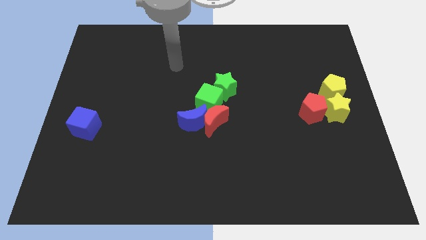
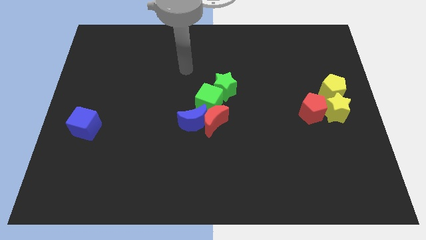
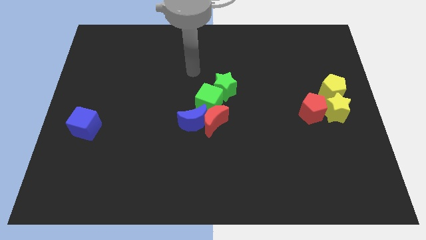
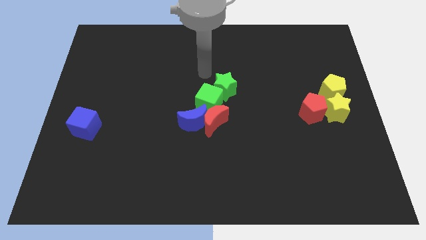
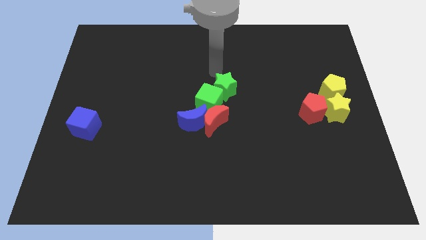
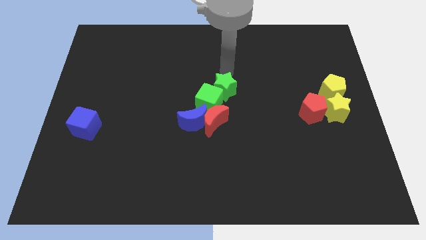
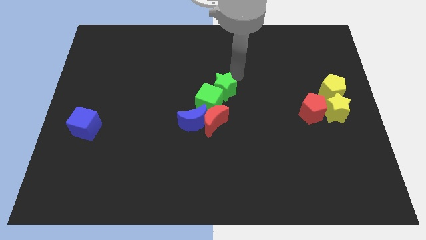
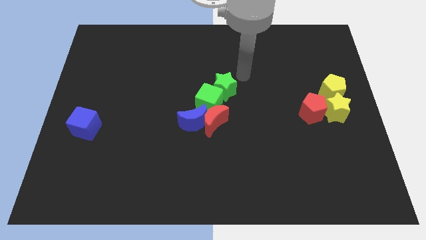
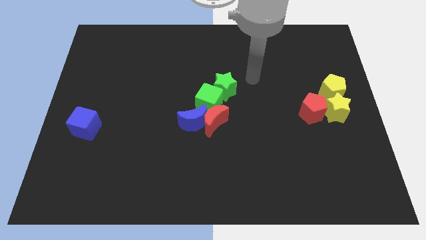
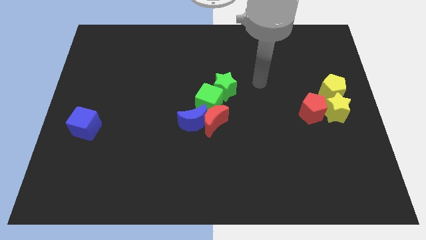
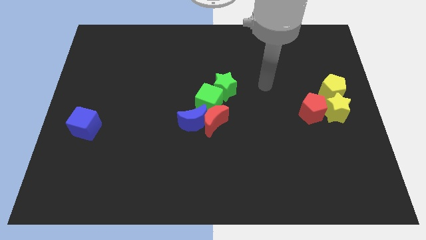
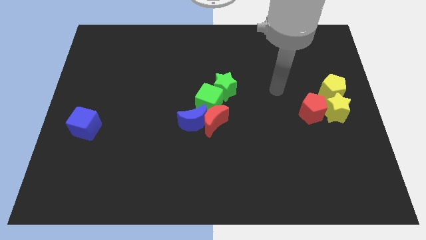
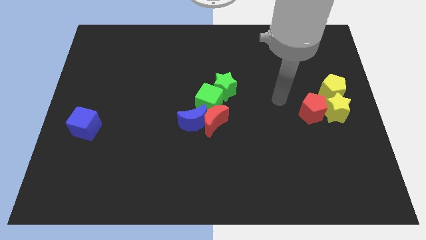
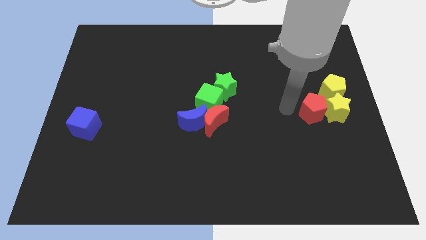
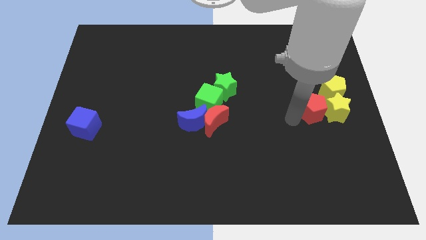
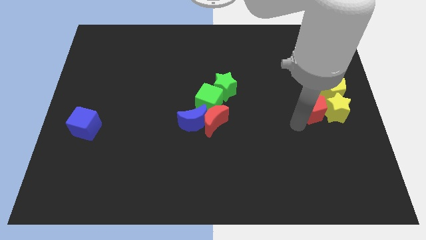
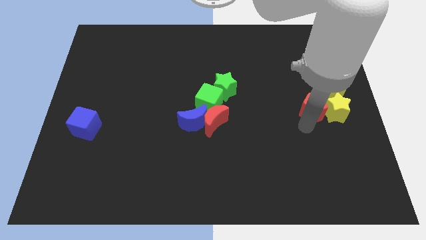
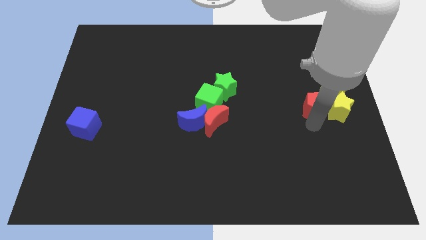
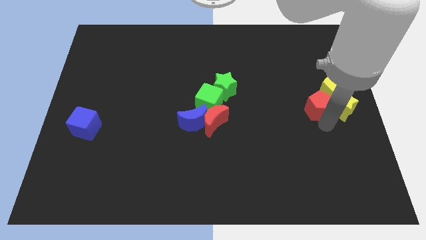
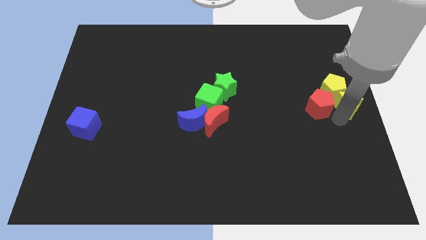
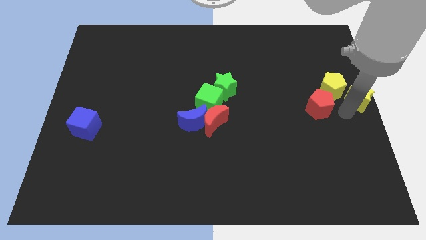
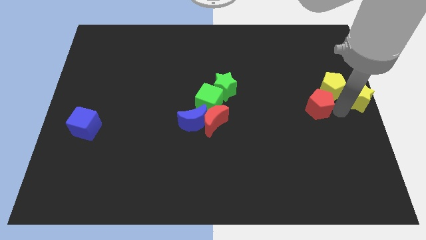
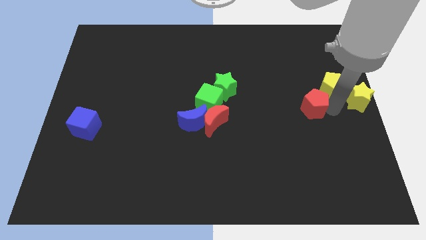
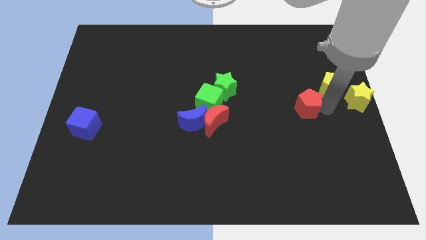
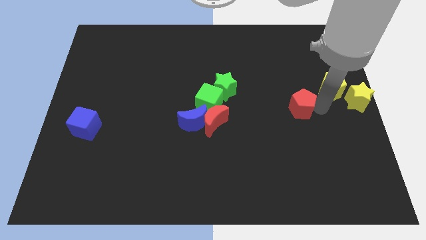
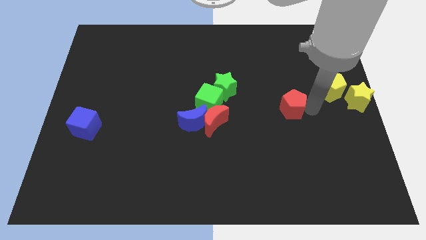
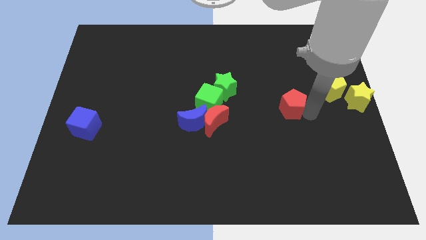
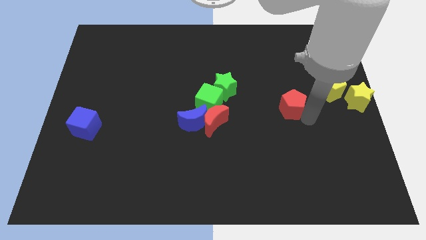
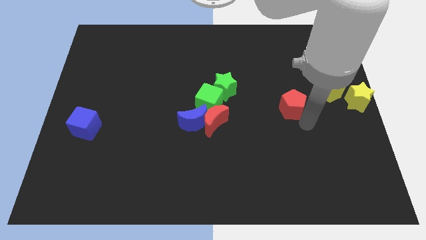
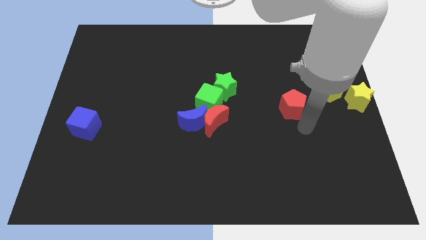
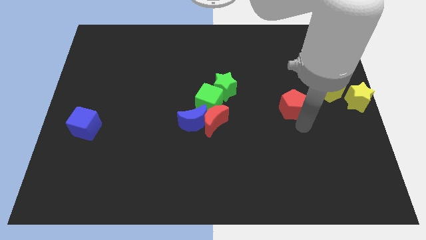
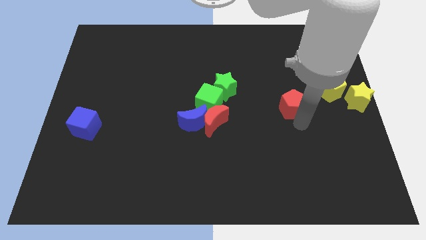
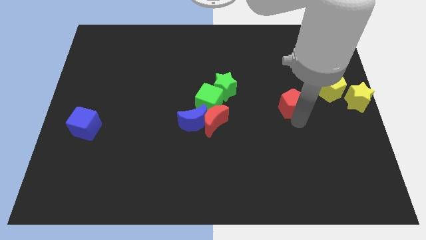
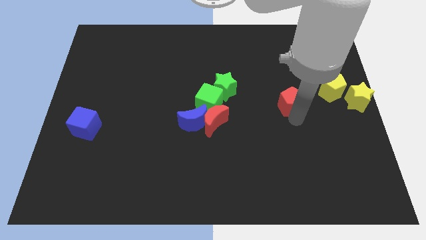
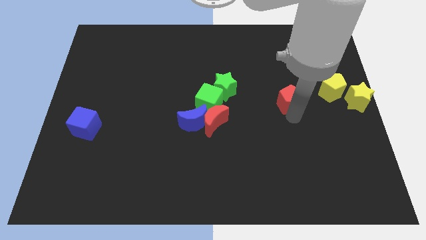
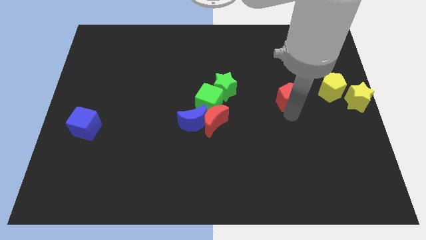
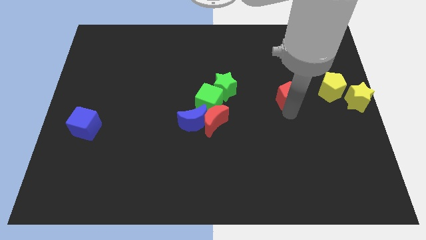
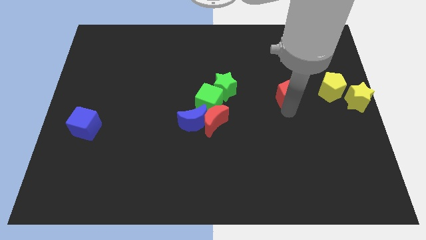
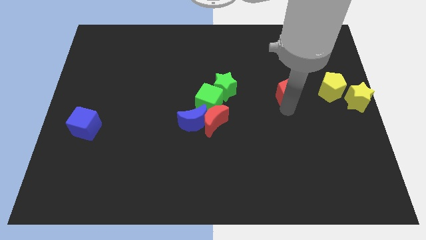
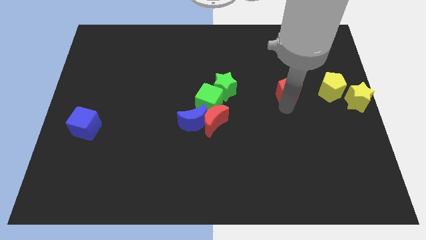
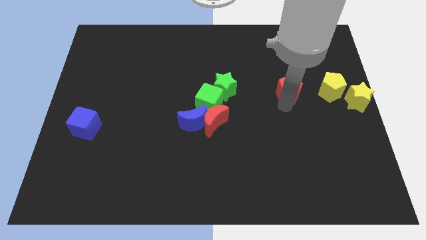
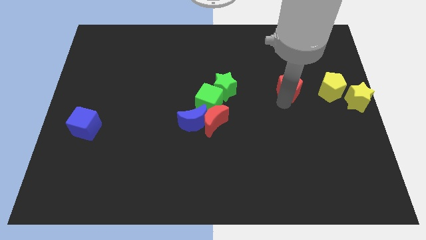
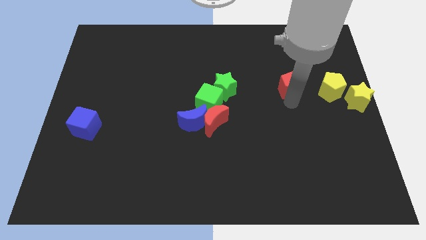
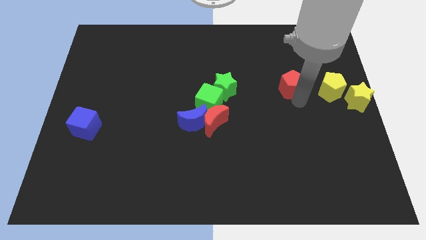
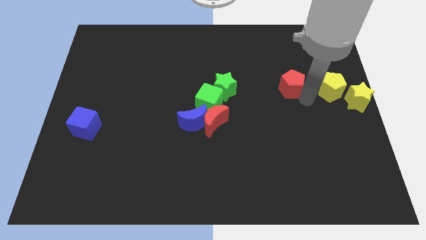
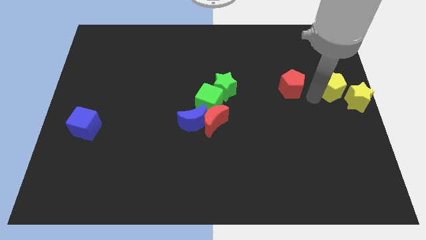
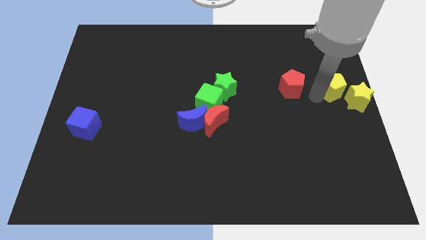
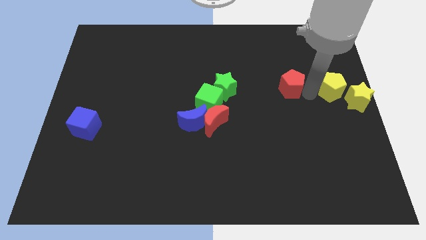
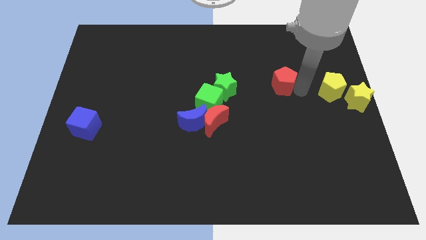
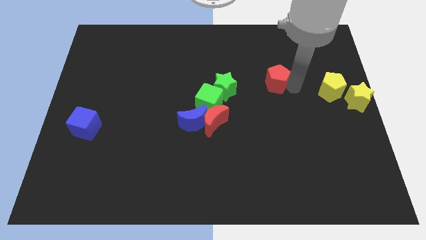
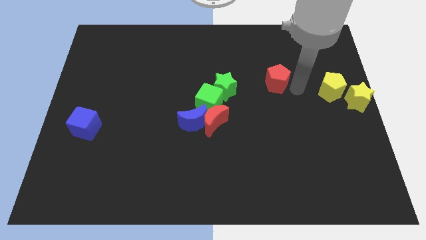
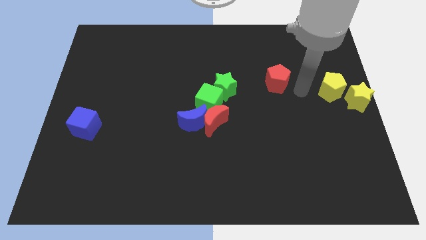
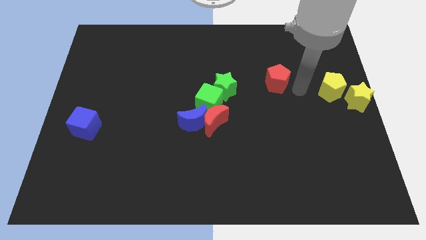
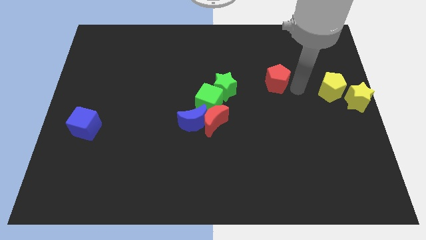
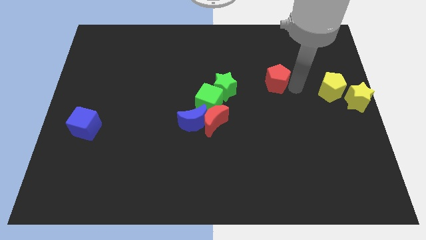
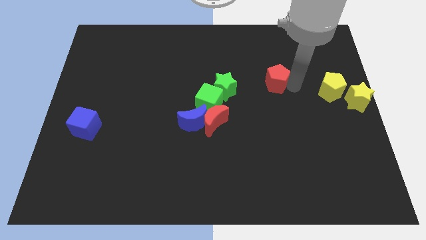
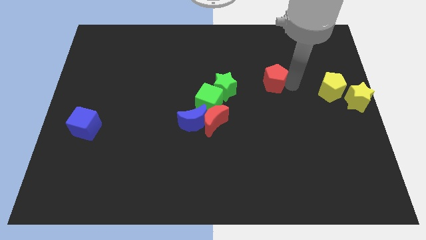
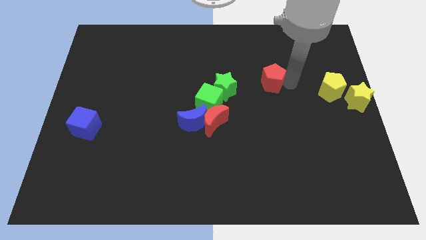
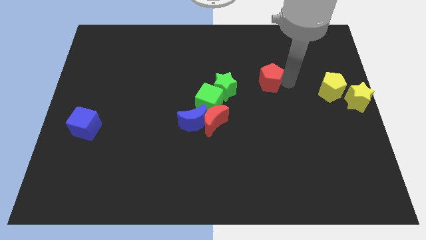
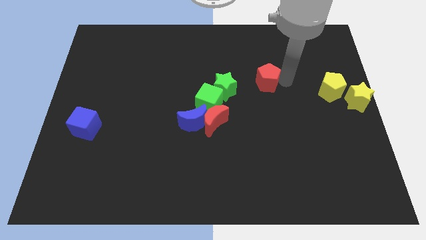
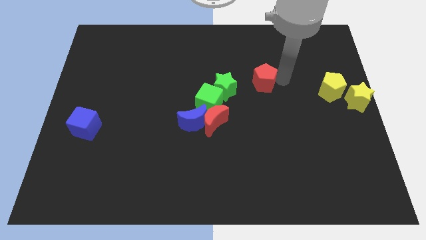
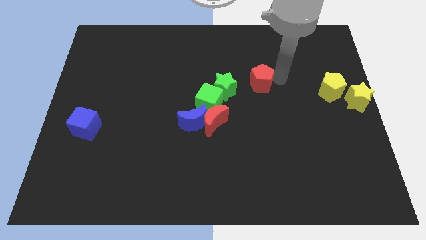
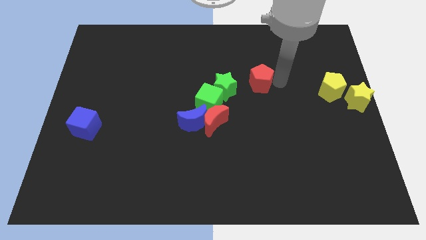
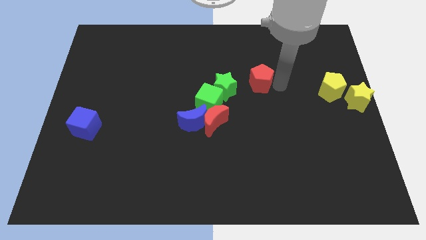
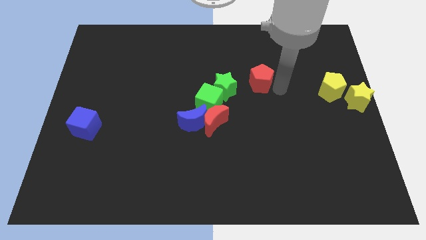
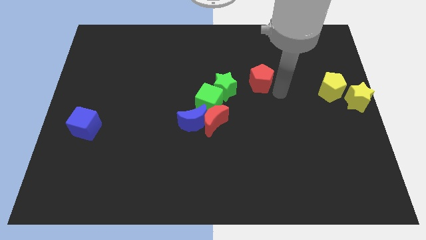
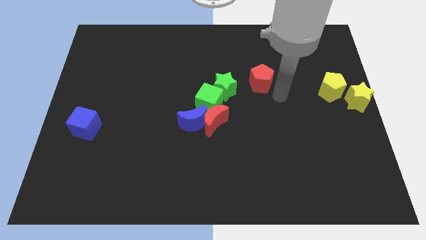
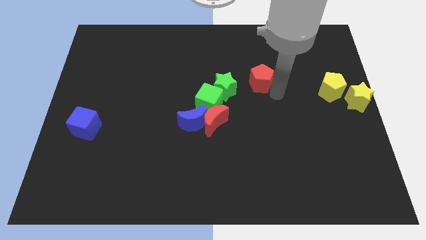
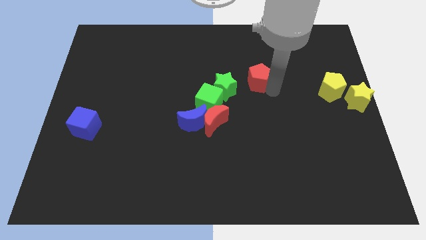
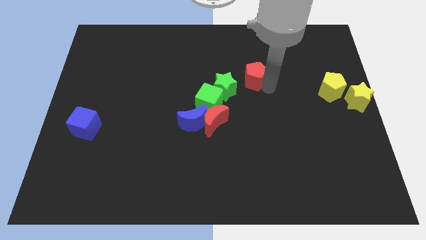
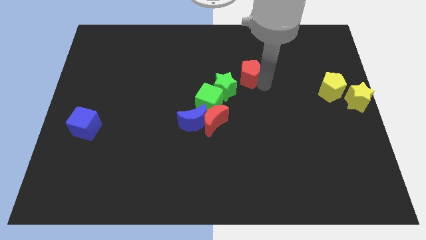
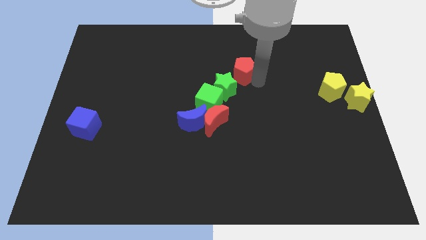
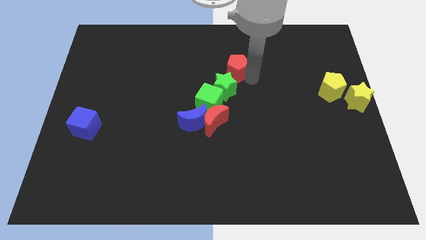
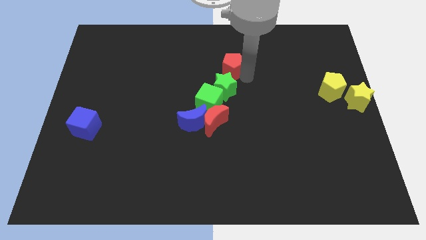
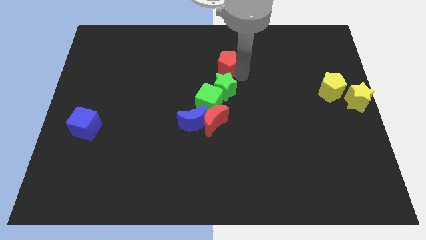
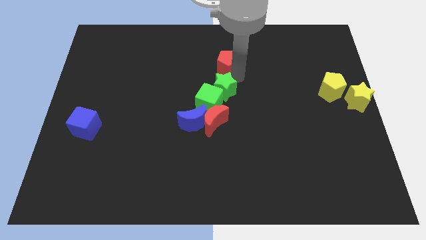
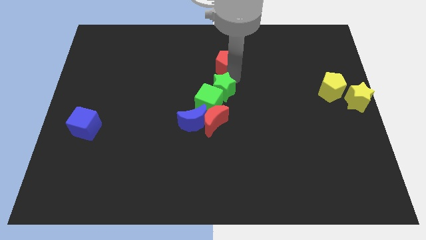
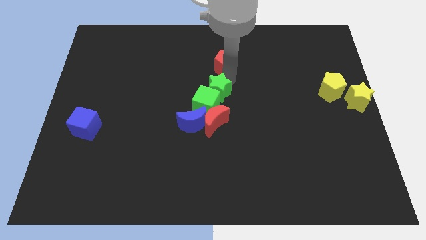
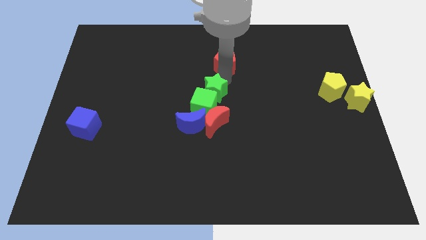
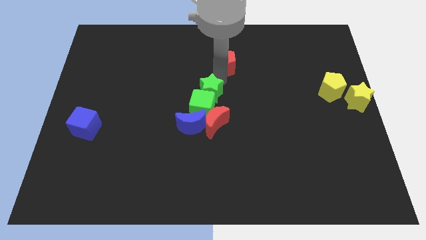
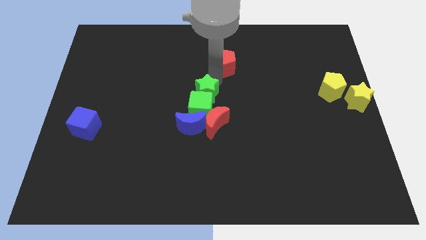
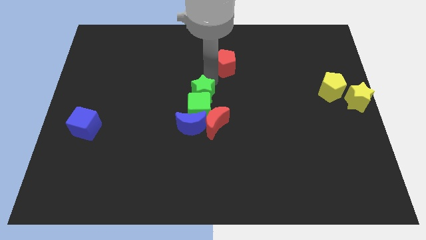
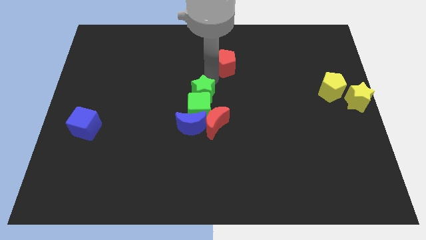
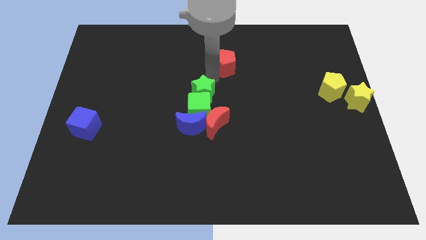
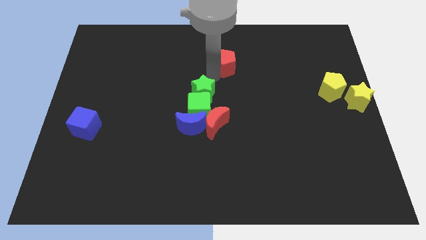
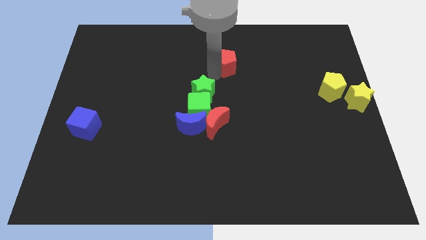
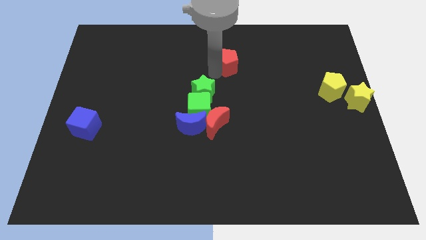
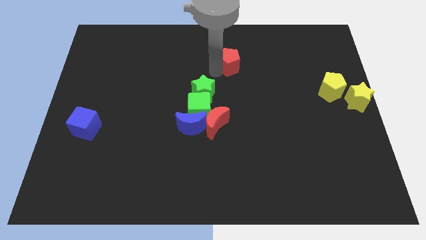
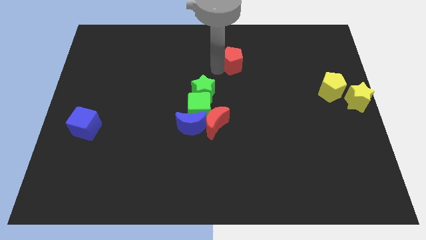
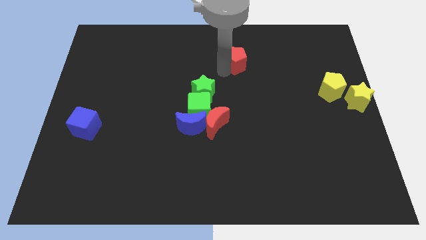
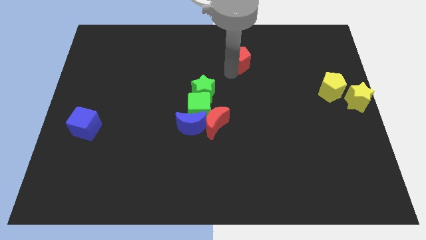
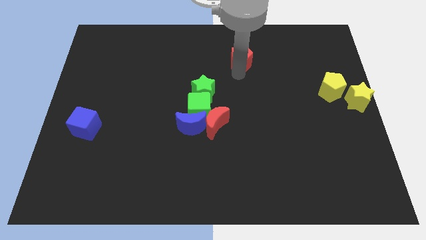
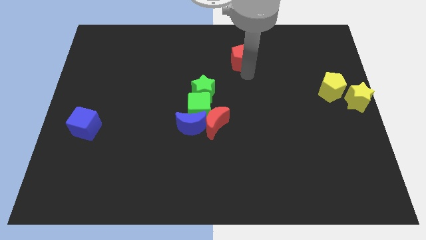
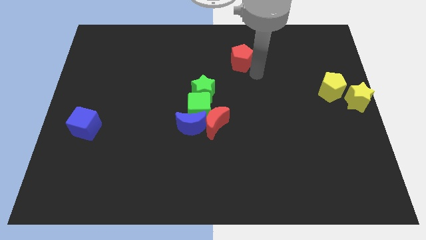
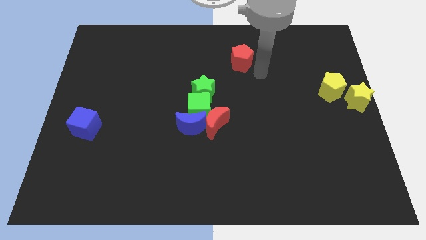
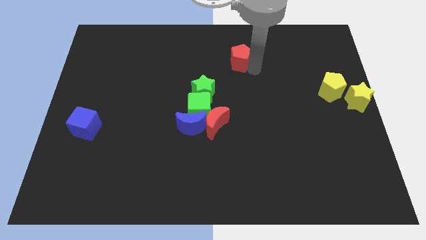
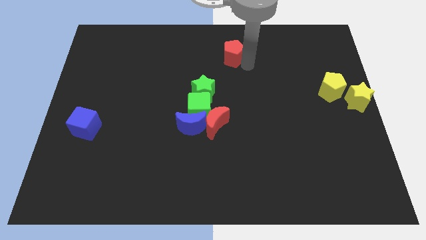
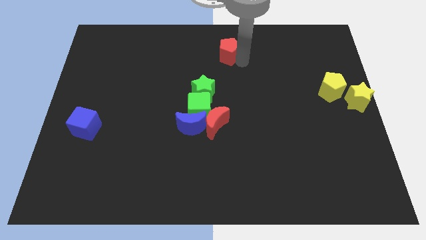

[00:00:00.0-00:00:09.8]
push the red pentagon to the top
